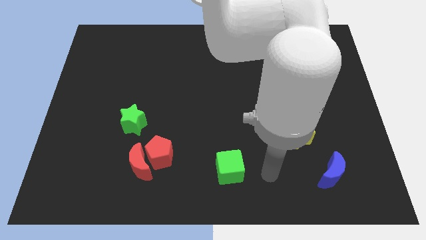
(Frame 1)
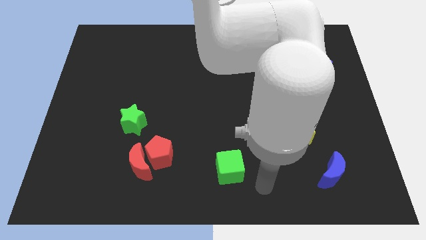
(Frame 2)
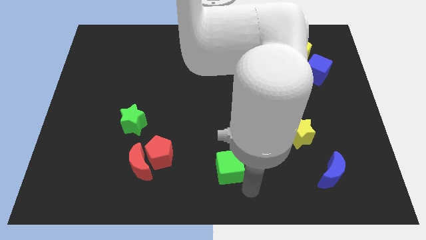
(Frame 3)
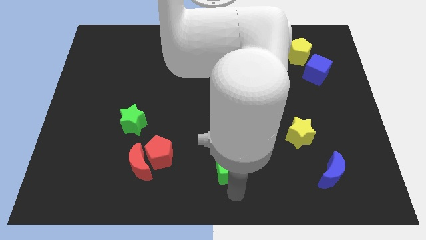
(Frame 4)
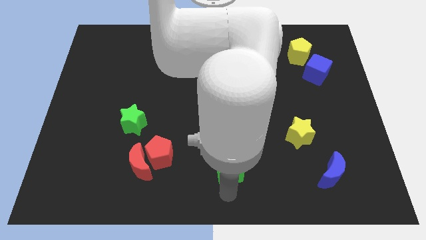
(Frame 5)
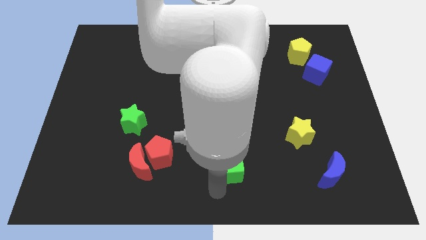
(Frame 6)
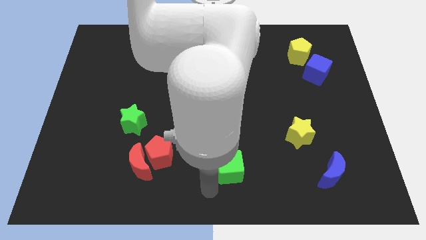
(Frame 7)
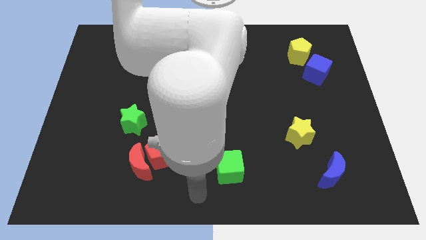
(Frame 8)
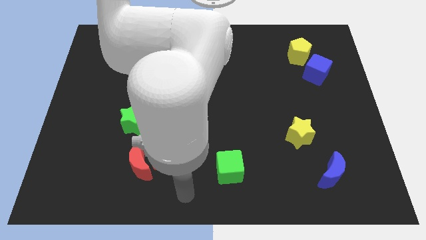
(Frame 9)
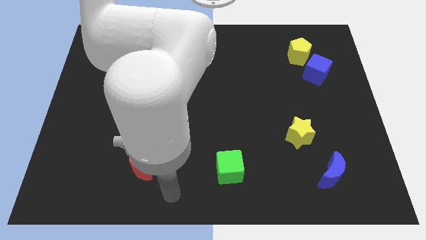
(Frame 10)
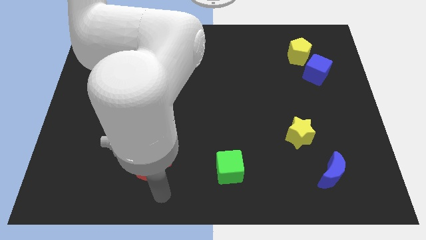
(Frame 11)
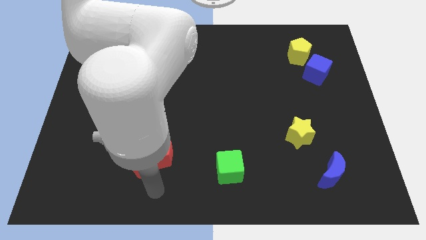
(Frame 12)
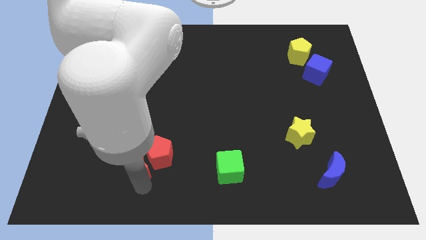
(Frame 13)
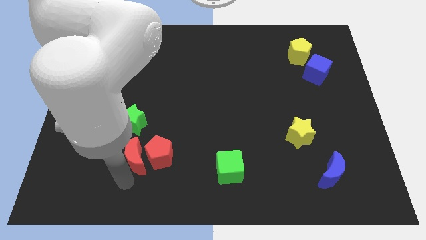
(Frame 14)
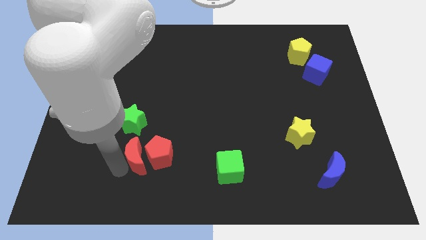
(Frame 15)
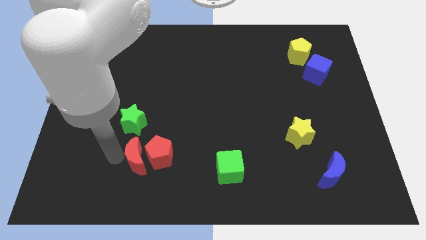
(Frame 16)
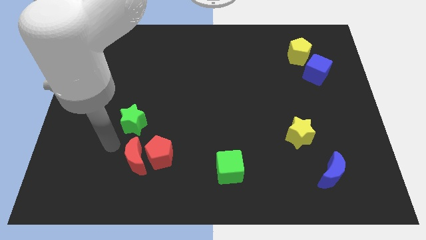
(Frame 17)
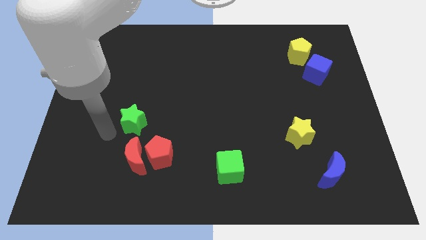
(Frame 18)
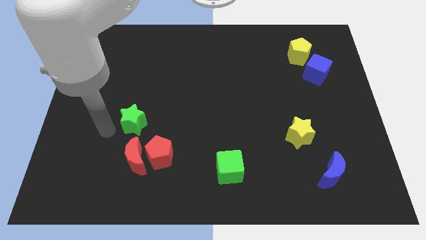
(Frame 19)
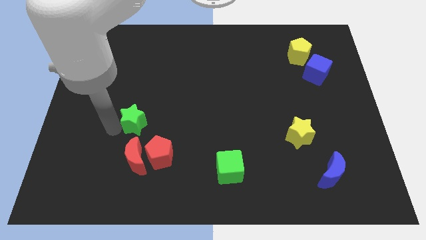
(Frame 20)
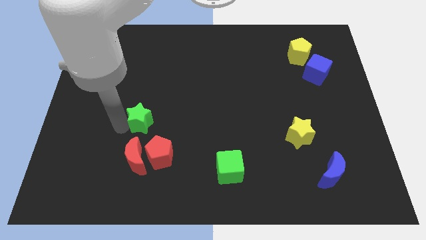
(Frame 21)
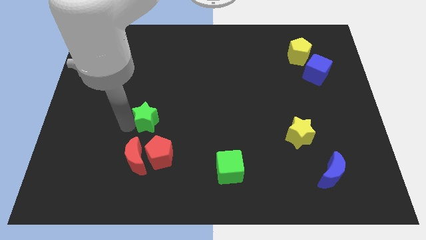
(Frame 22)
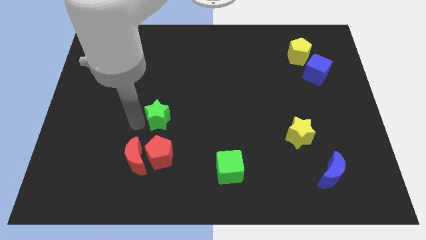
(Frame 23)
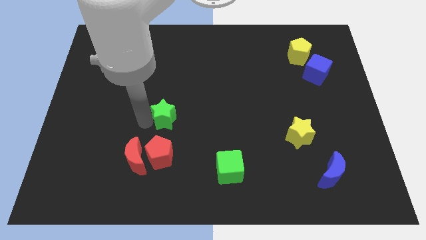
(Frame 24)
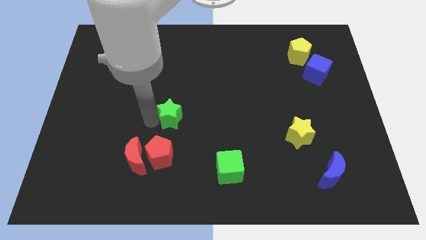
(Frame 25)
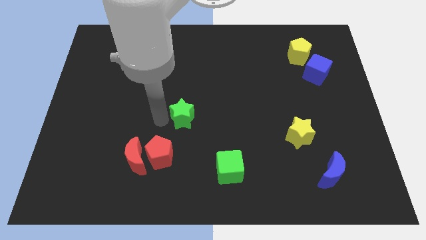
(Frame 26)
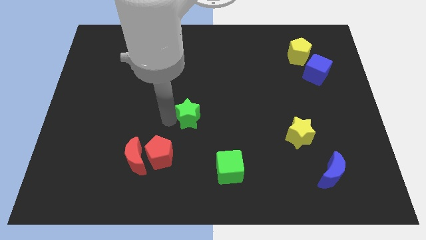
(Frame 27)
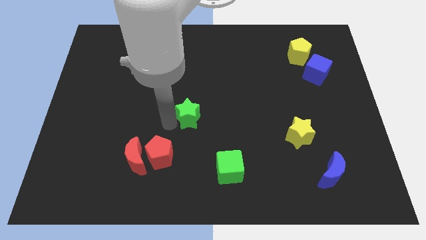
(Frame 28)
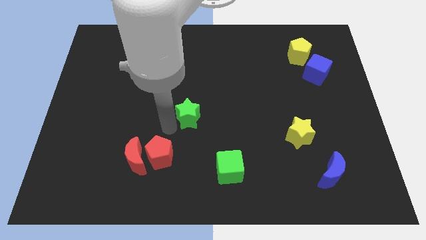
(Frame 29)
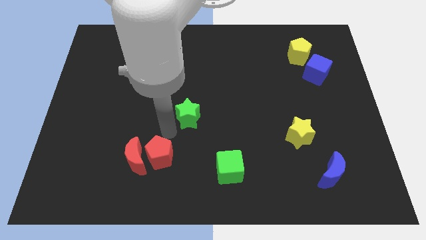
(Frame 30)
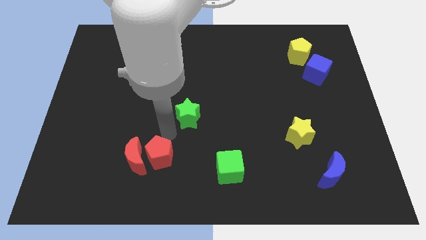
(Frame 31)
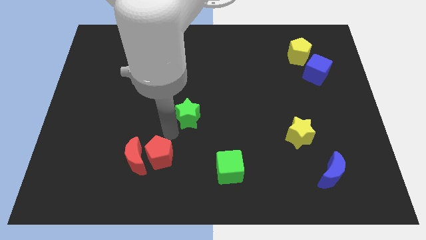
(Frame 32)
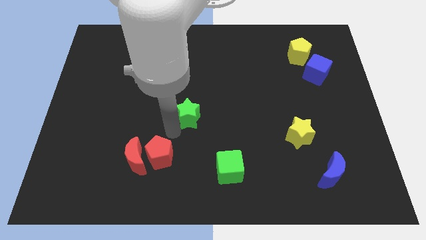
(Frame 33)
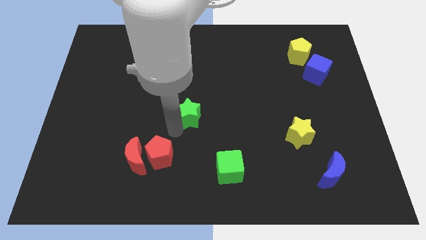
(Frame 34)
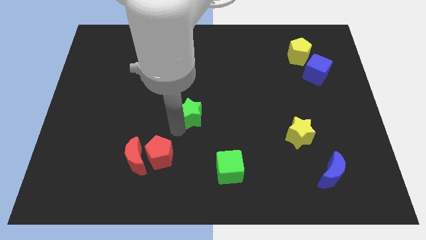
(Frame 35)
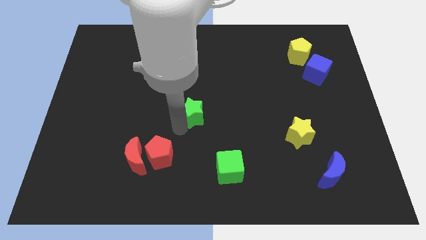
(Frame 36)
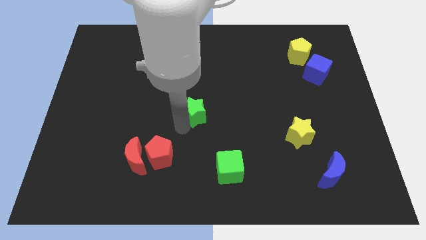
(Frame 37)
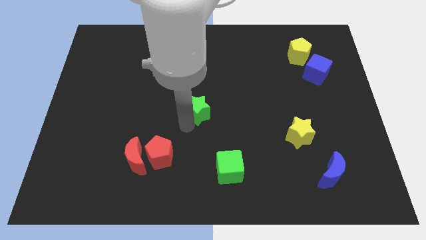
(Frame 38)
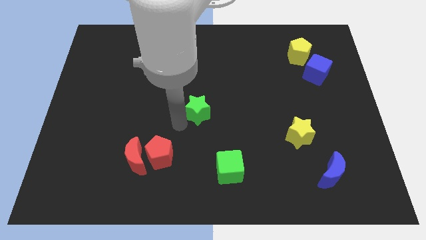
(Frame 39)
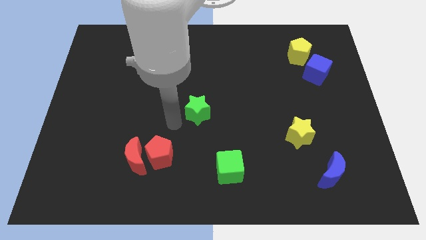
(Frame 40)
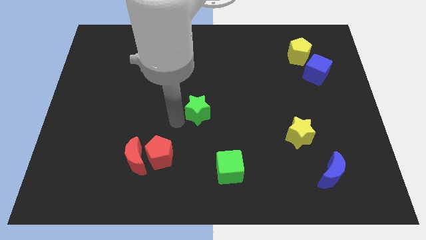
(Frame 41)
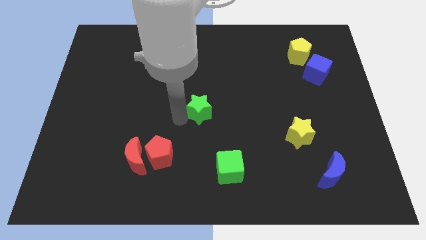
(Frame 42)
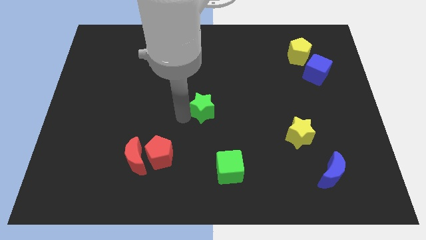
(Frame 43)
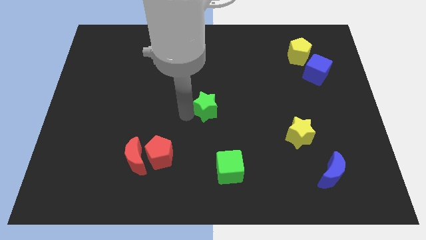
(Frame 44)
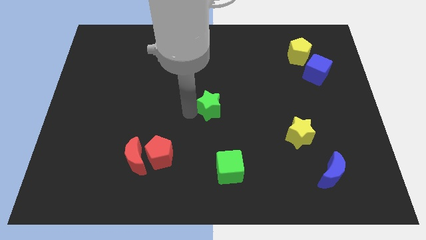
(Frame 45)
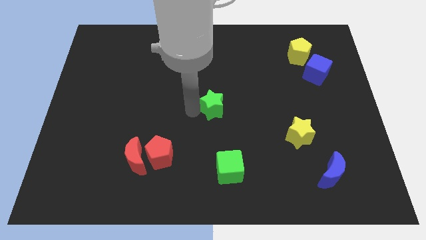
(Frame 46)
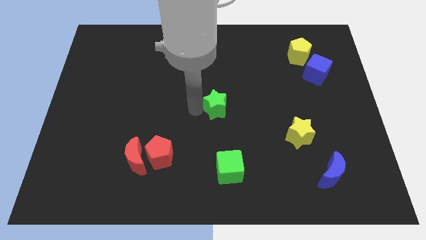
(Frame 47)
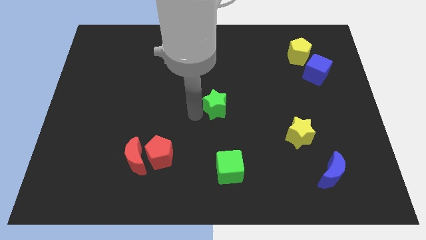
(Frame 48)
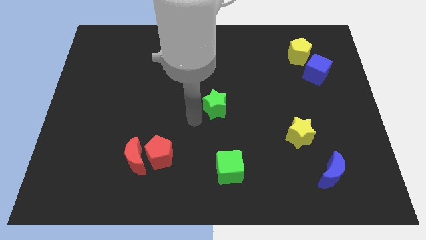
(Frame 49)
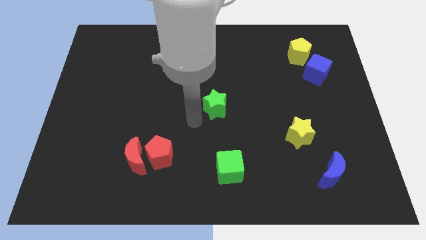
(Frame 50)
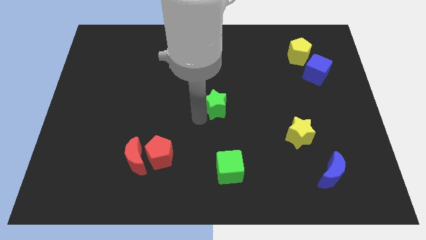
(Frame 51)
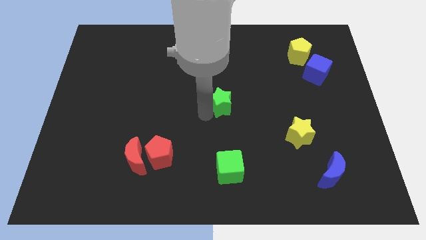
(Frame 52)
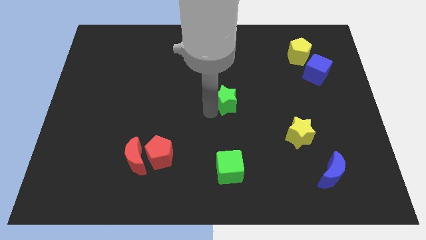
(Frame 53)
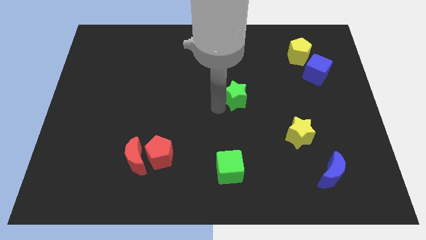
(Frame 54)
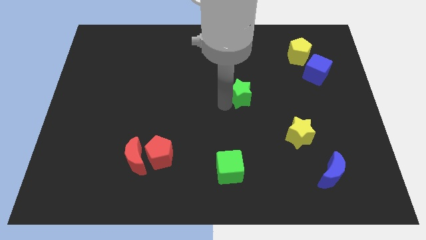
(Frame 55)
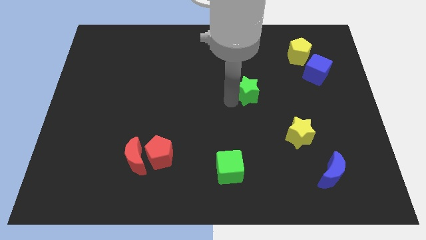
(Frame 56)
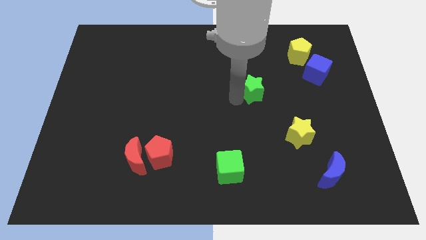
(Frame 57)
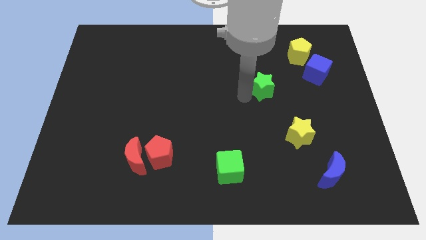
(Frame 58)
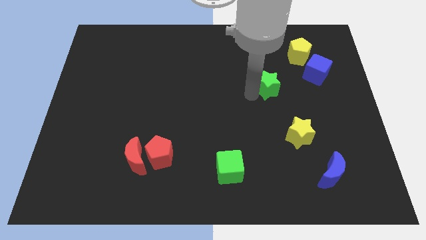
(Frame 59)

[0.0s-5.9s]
push the green star to the left of the blue cube

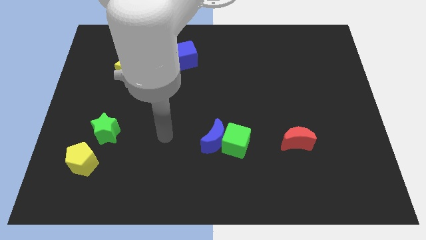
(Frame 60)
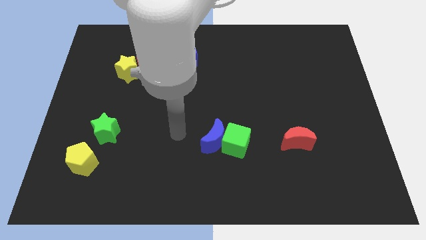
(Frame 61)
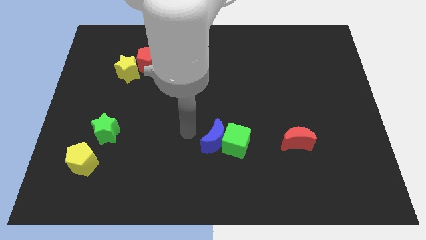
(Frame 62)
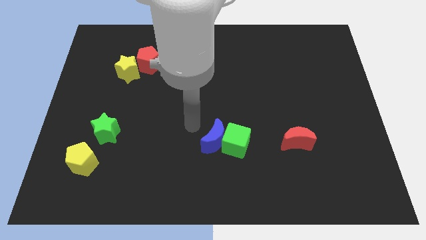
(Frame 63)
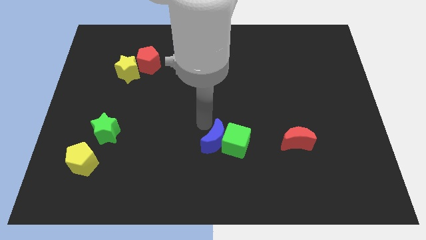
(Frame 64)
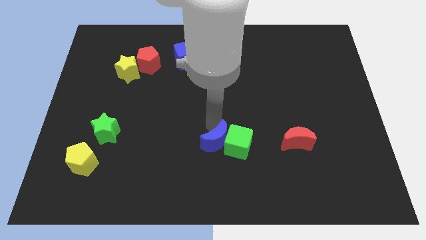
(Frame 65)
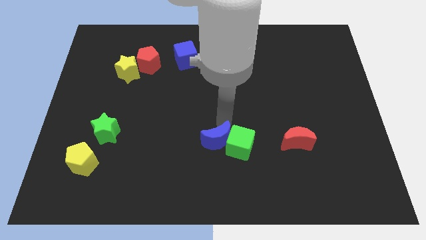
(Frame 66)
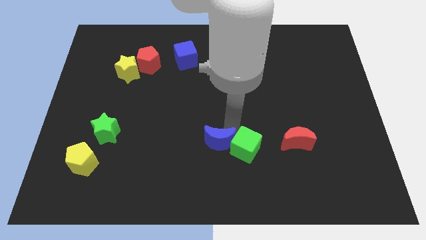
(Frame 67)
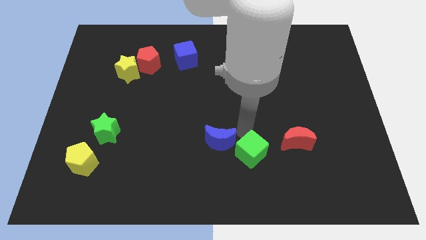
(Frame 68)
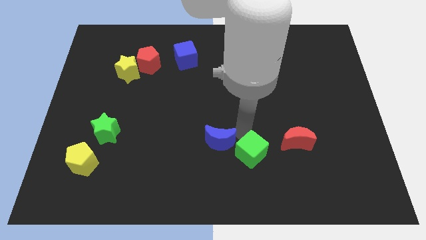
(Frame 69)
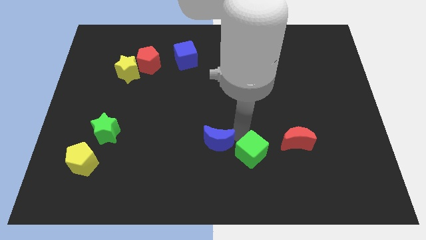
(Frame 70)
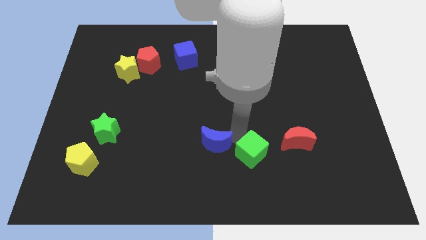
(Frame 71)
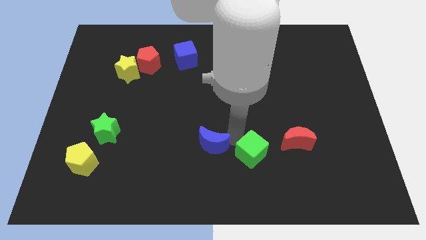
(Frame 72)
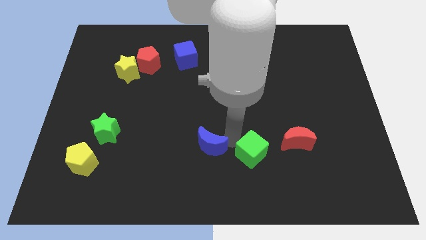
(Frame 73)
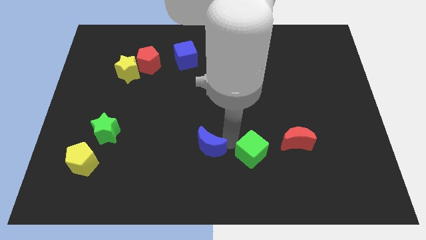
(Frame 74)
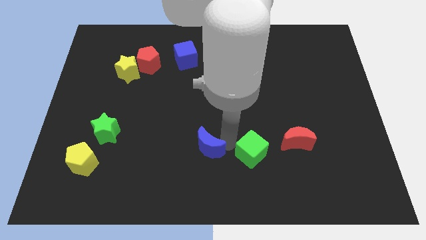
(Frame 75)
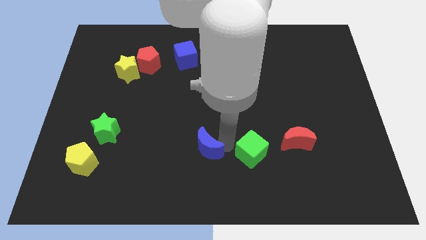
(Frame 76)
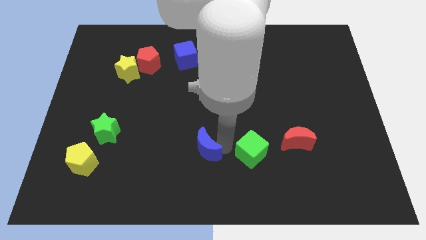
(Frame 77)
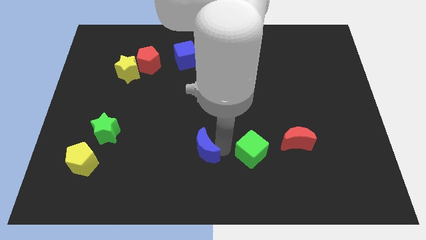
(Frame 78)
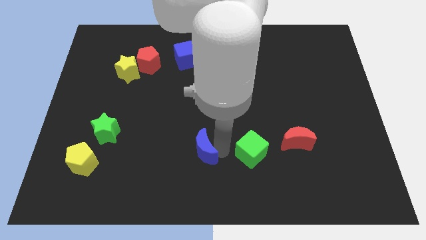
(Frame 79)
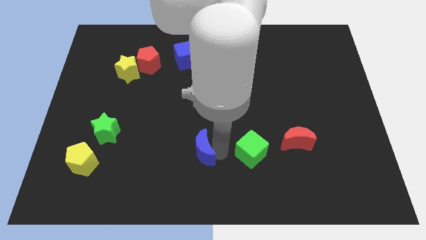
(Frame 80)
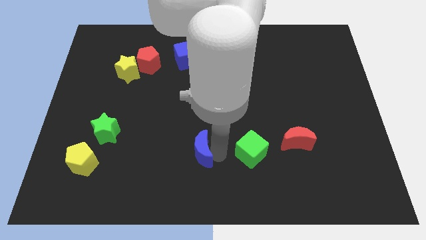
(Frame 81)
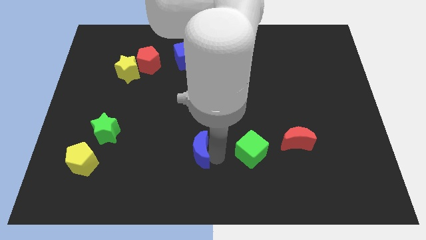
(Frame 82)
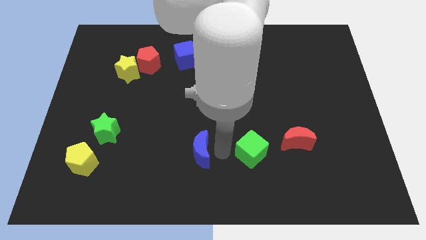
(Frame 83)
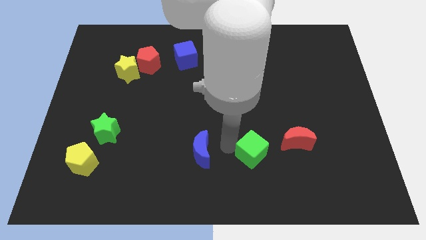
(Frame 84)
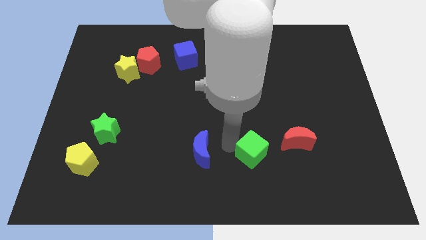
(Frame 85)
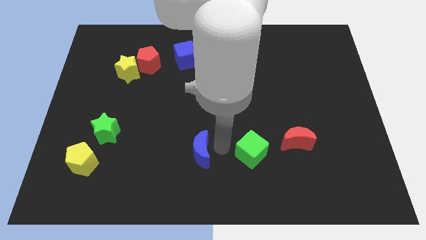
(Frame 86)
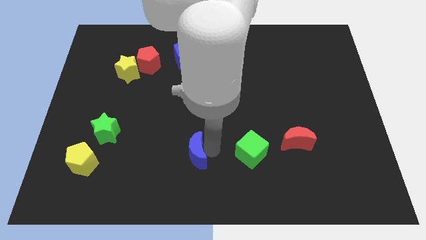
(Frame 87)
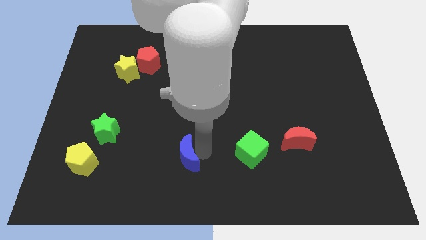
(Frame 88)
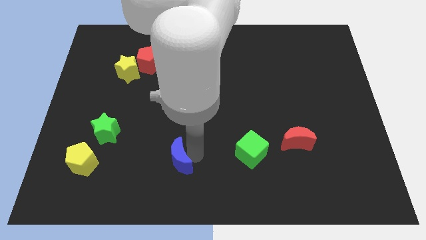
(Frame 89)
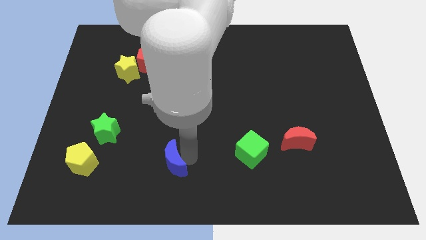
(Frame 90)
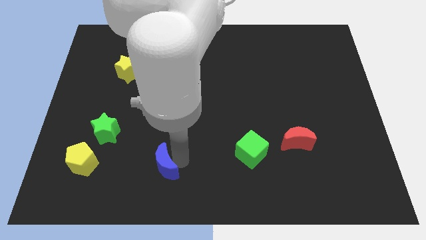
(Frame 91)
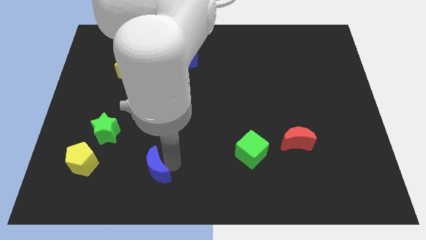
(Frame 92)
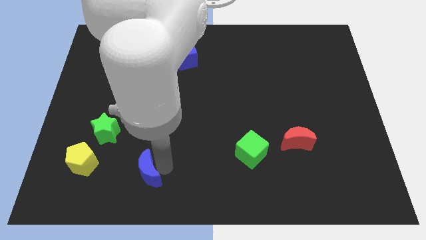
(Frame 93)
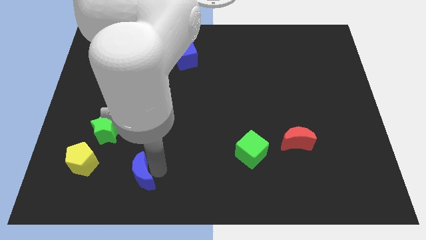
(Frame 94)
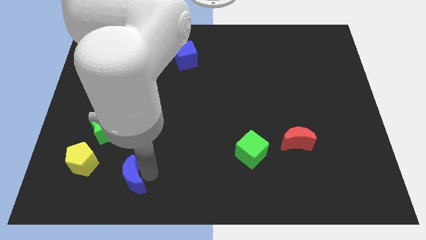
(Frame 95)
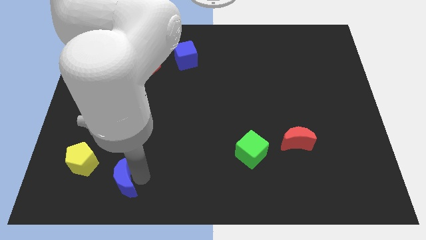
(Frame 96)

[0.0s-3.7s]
slide the blue moon to the bottom right side of the yellow pentagon
